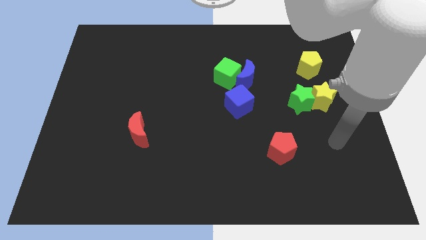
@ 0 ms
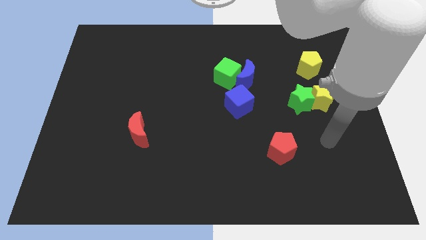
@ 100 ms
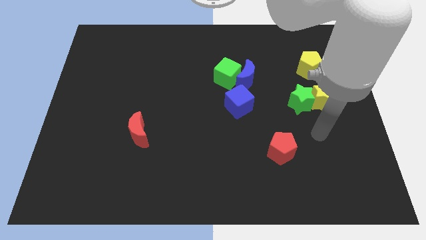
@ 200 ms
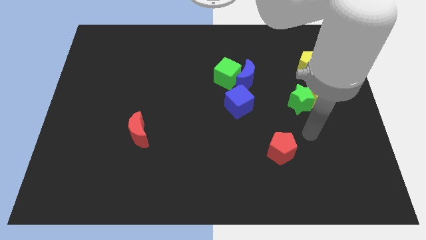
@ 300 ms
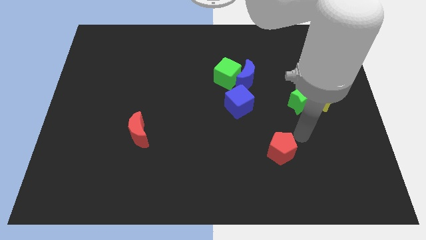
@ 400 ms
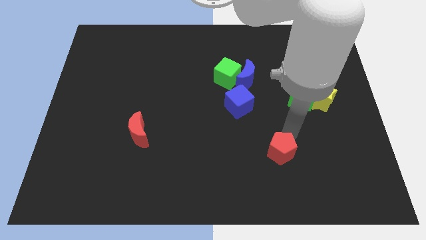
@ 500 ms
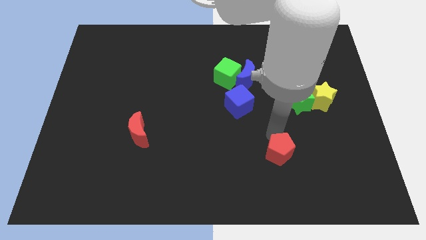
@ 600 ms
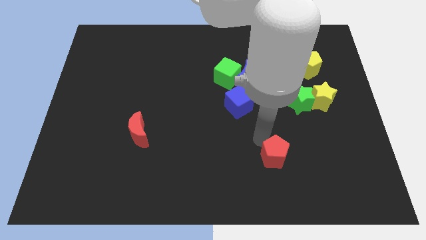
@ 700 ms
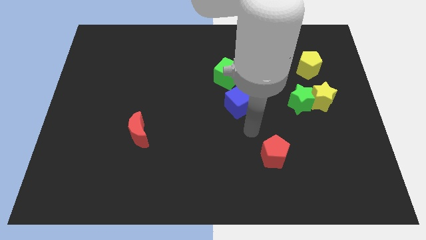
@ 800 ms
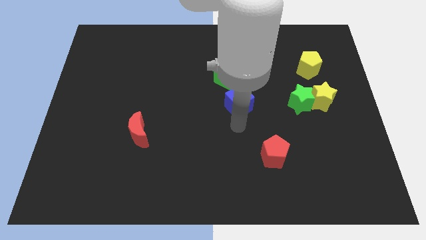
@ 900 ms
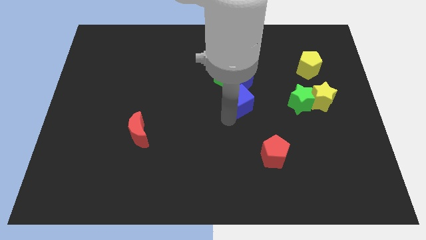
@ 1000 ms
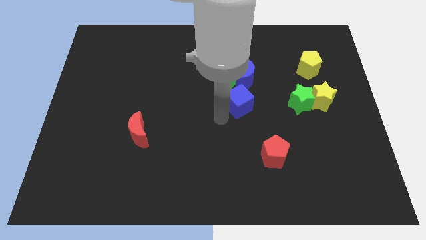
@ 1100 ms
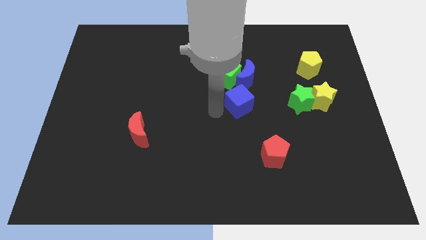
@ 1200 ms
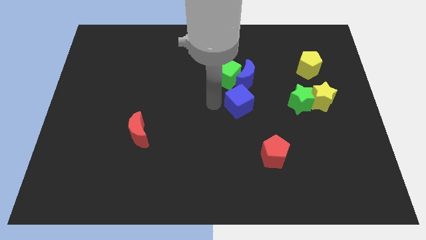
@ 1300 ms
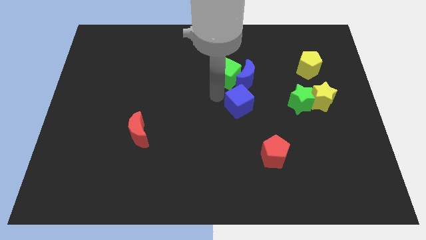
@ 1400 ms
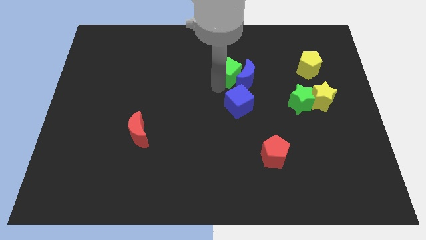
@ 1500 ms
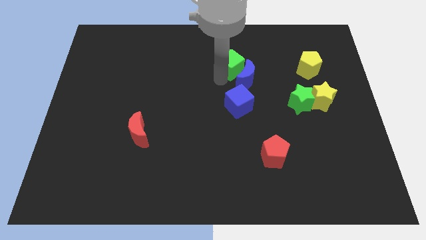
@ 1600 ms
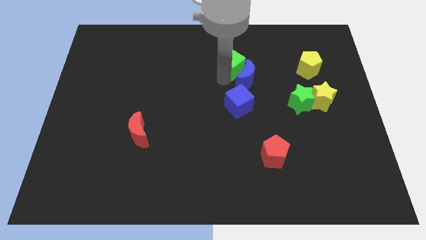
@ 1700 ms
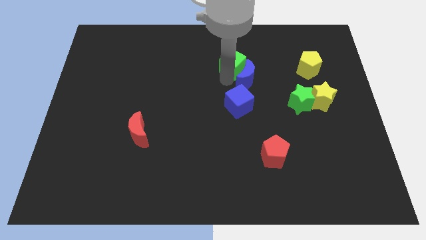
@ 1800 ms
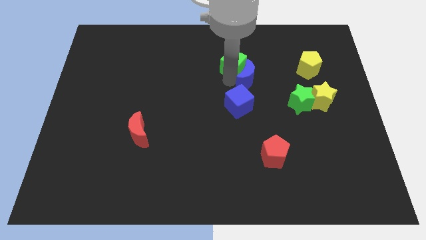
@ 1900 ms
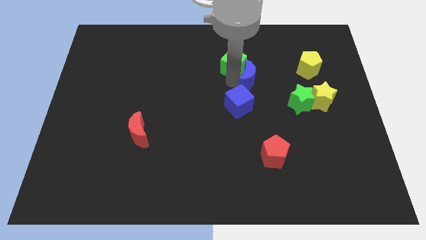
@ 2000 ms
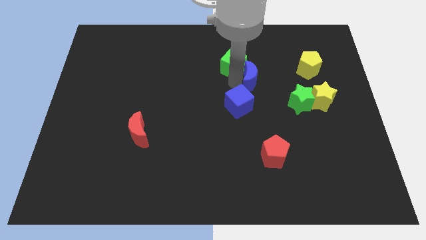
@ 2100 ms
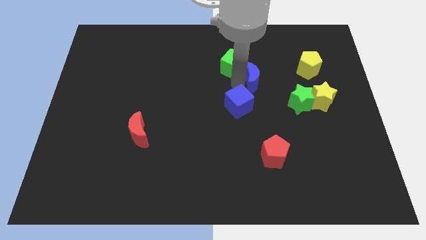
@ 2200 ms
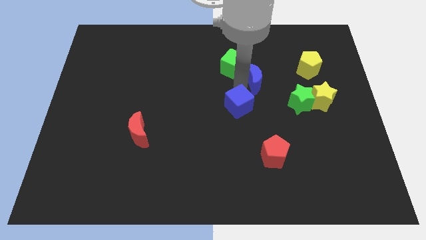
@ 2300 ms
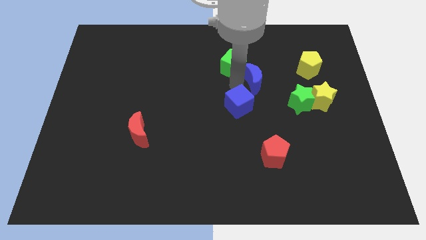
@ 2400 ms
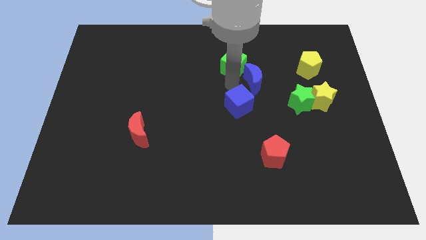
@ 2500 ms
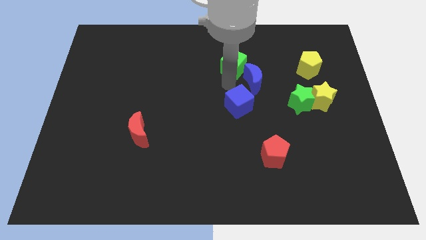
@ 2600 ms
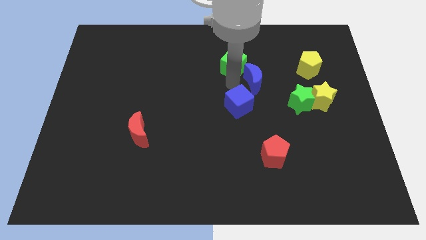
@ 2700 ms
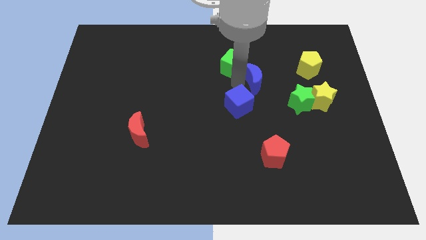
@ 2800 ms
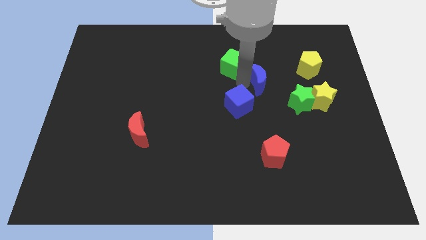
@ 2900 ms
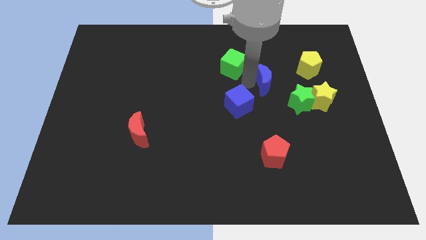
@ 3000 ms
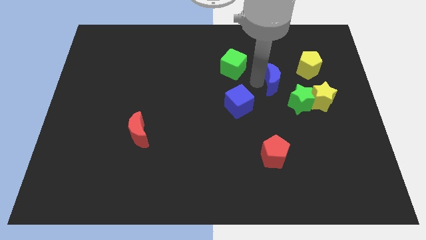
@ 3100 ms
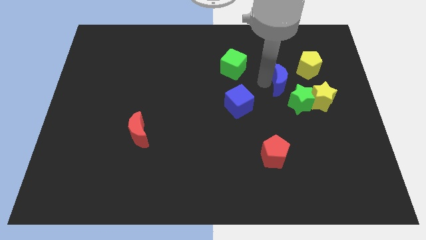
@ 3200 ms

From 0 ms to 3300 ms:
push the blue moon right a bit

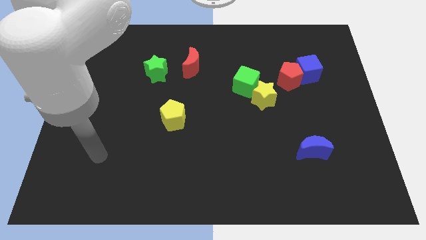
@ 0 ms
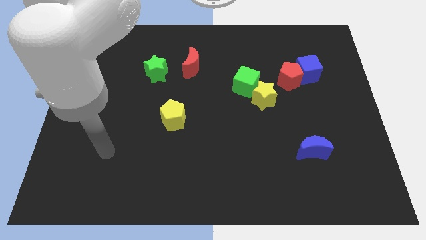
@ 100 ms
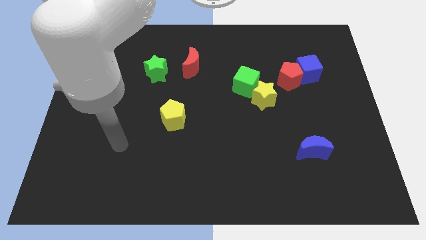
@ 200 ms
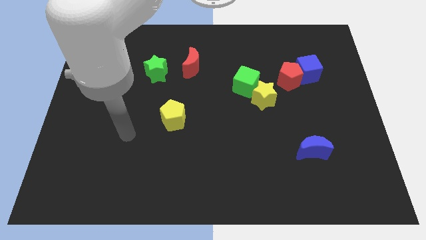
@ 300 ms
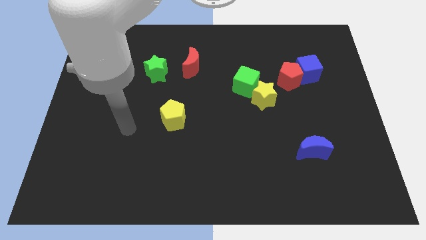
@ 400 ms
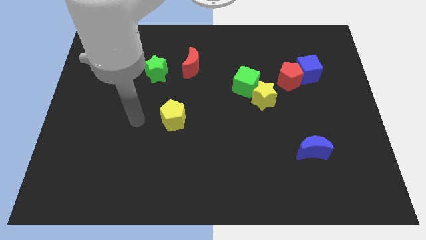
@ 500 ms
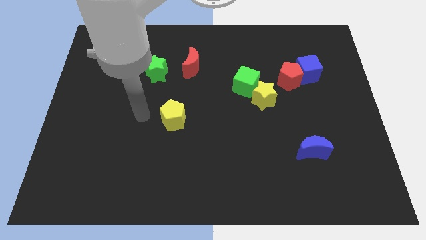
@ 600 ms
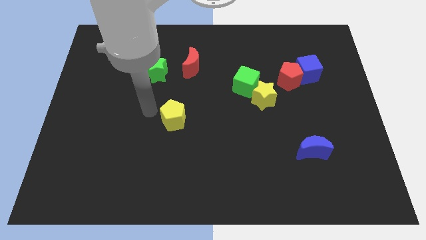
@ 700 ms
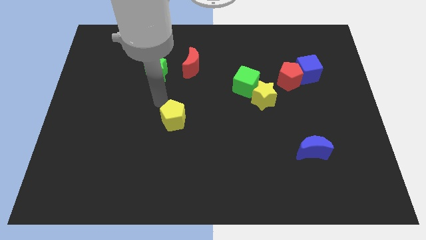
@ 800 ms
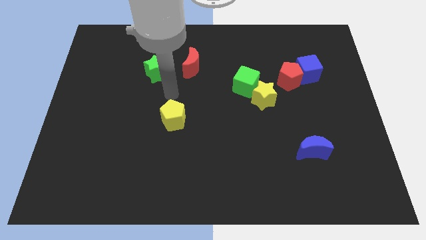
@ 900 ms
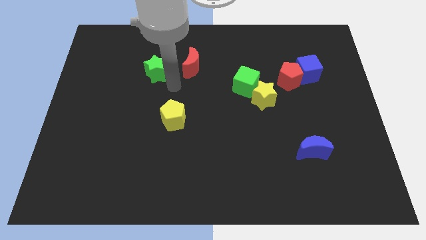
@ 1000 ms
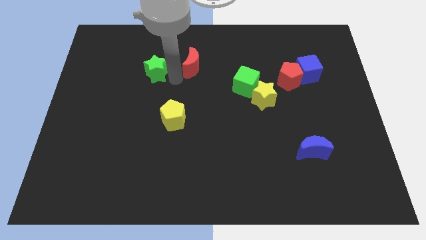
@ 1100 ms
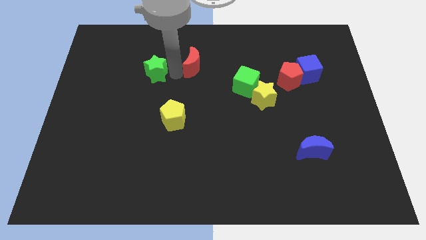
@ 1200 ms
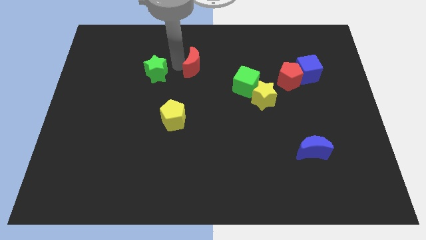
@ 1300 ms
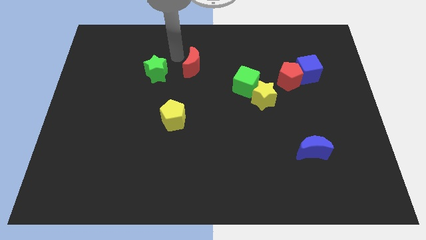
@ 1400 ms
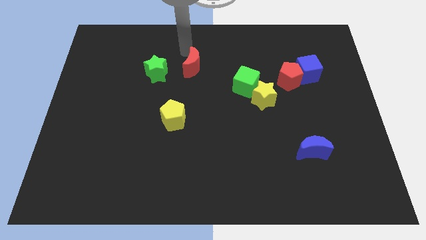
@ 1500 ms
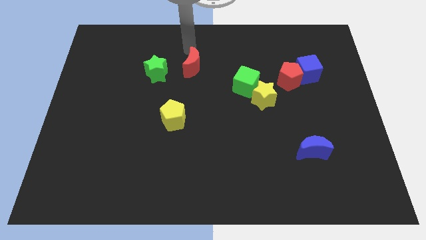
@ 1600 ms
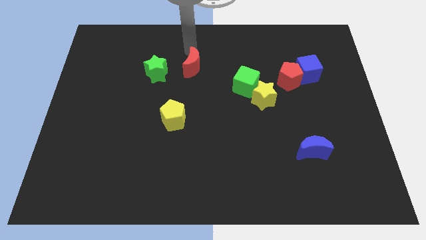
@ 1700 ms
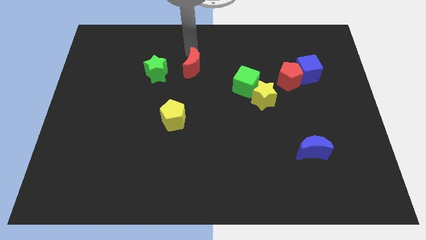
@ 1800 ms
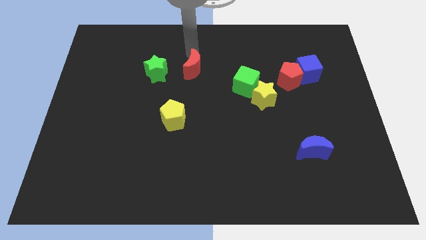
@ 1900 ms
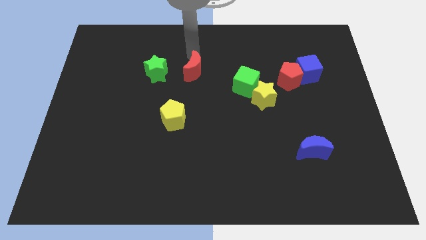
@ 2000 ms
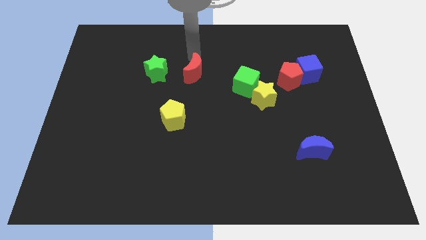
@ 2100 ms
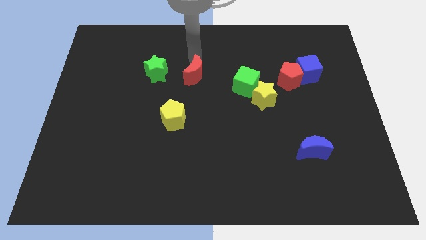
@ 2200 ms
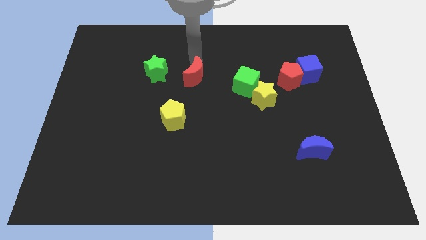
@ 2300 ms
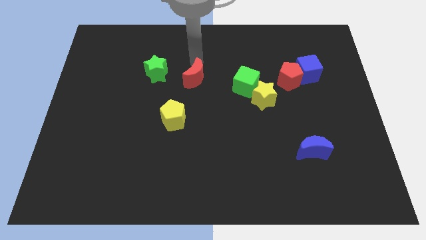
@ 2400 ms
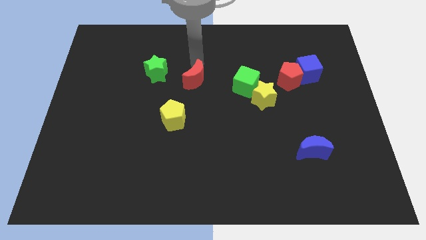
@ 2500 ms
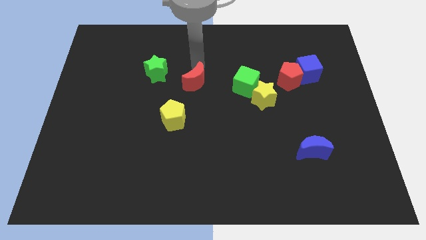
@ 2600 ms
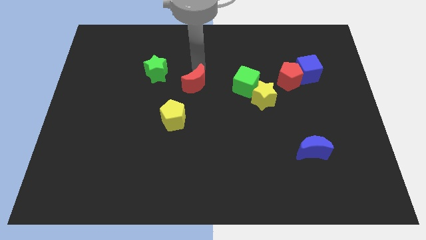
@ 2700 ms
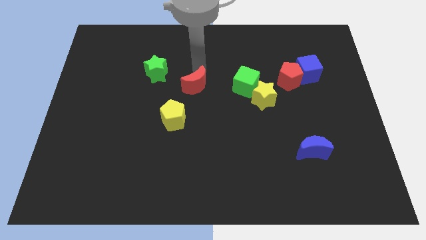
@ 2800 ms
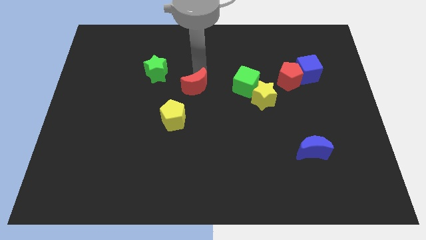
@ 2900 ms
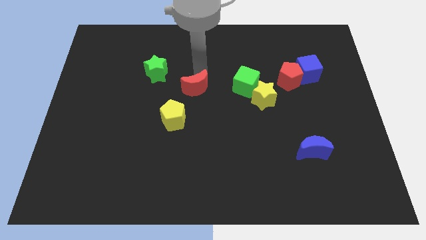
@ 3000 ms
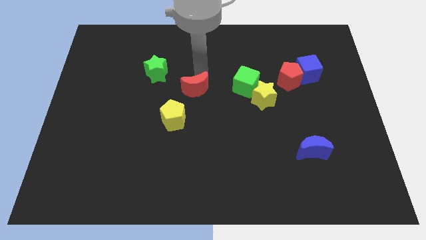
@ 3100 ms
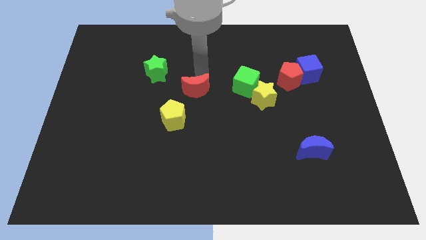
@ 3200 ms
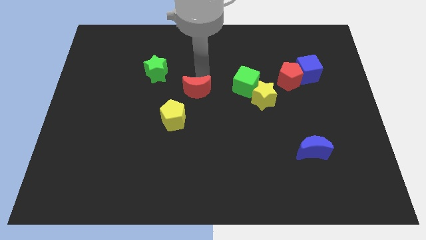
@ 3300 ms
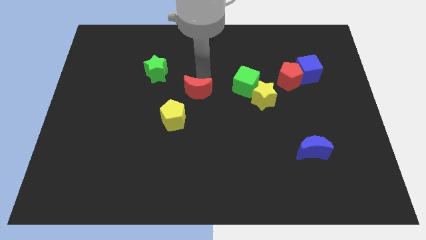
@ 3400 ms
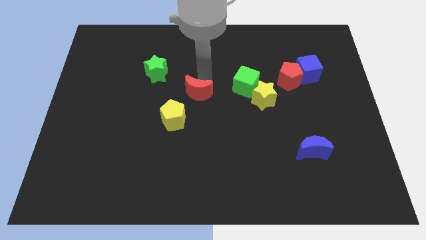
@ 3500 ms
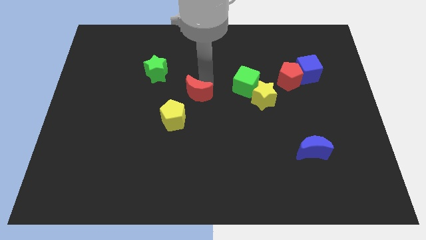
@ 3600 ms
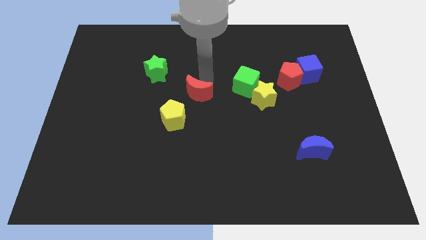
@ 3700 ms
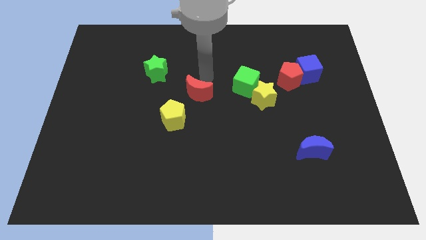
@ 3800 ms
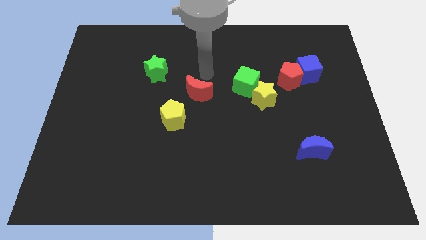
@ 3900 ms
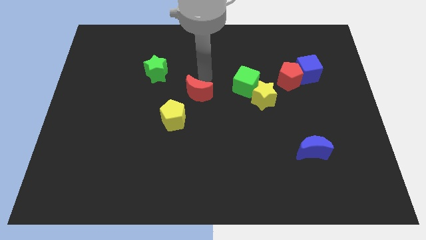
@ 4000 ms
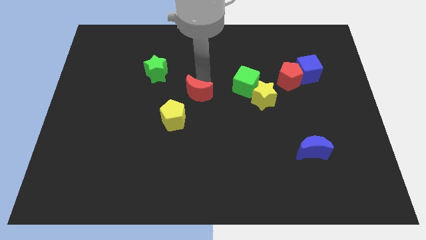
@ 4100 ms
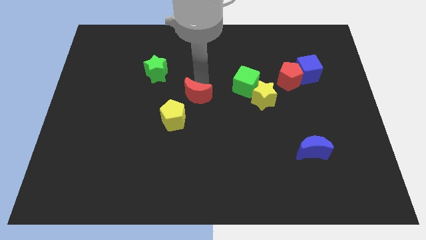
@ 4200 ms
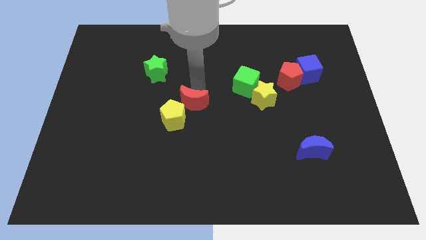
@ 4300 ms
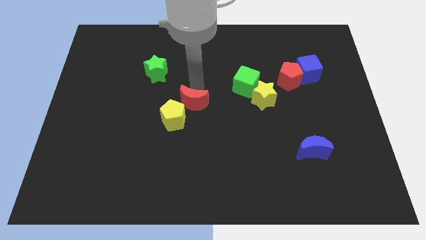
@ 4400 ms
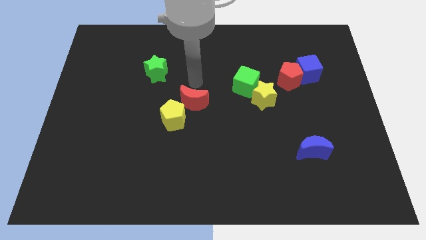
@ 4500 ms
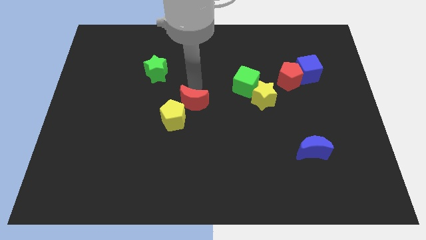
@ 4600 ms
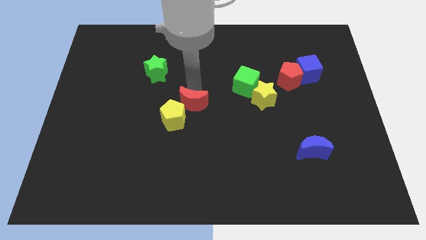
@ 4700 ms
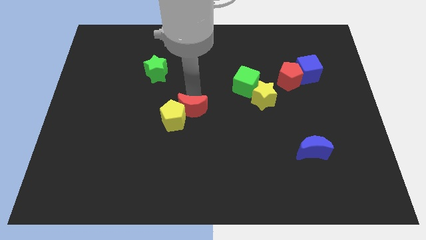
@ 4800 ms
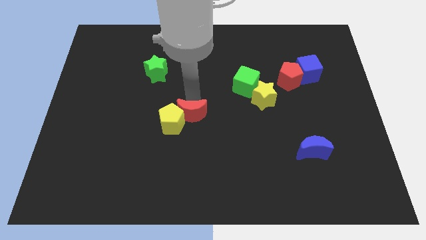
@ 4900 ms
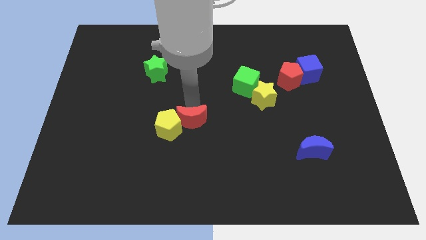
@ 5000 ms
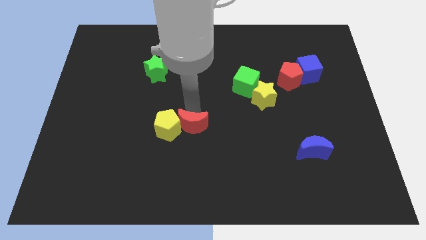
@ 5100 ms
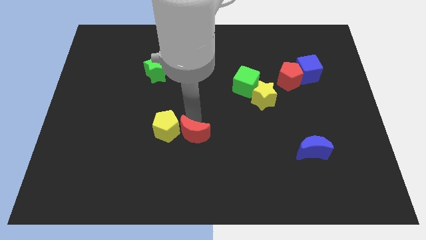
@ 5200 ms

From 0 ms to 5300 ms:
slide the red moon downwards
